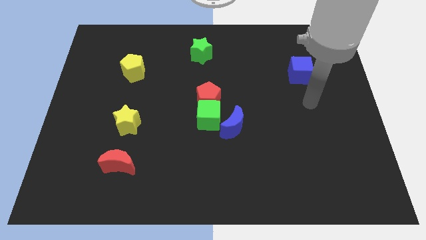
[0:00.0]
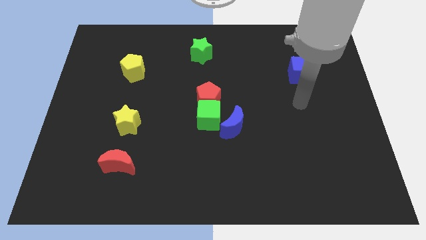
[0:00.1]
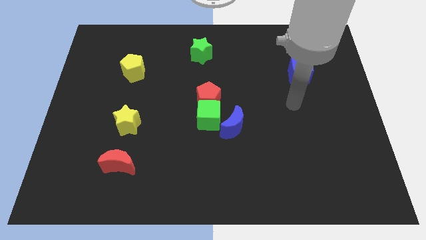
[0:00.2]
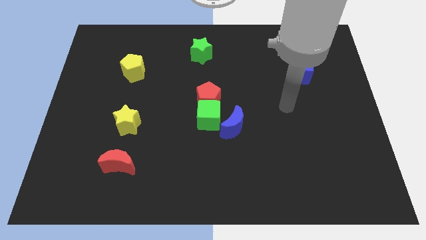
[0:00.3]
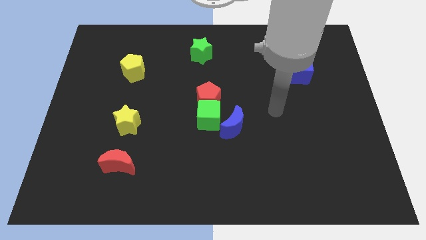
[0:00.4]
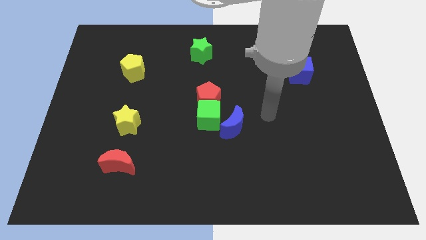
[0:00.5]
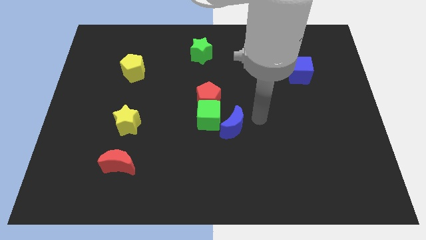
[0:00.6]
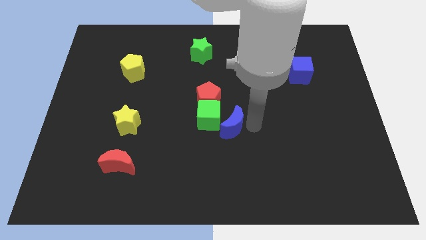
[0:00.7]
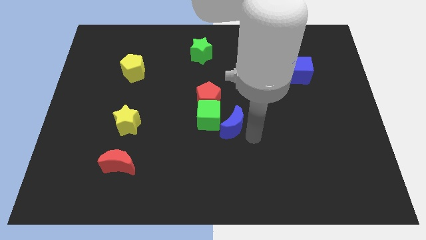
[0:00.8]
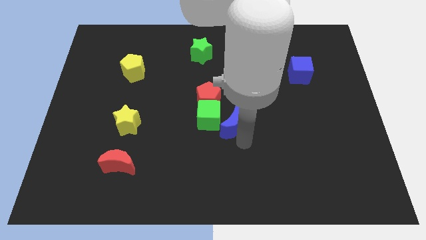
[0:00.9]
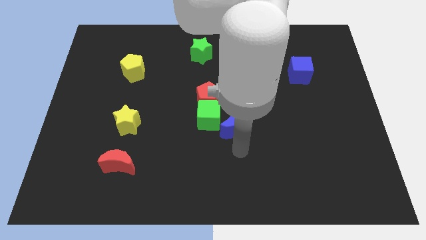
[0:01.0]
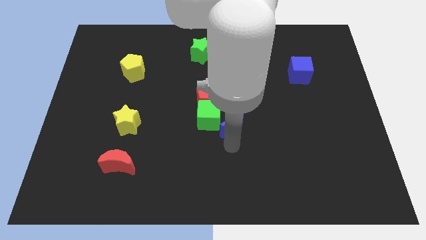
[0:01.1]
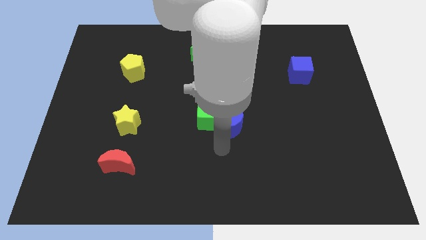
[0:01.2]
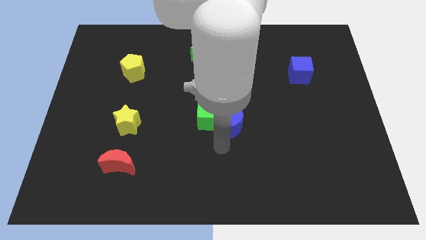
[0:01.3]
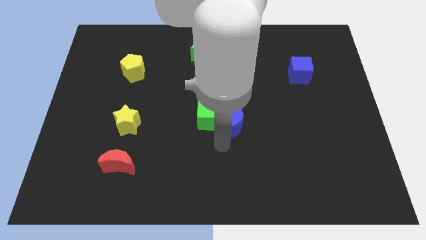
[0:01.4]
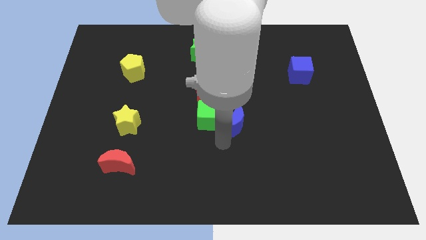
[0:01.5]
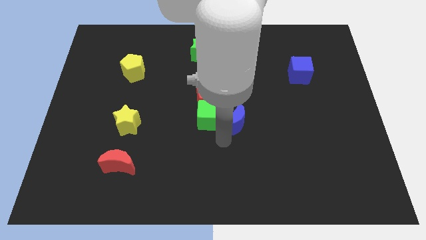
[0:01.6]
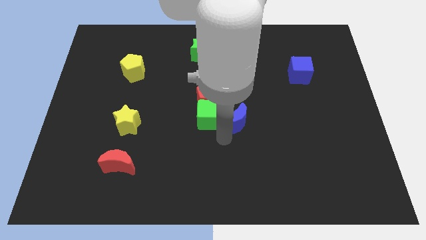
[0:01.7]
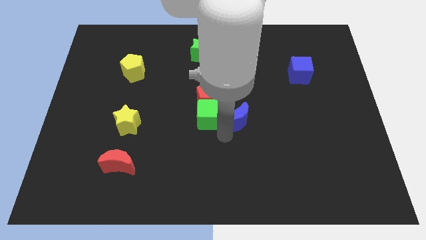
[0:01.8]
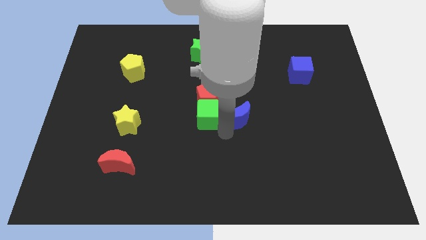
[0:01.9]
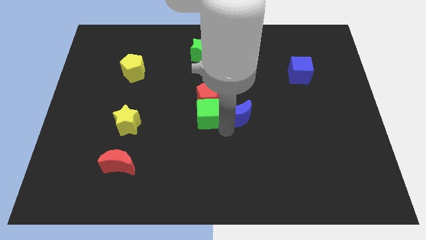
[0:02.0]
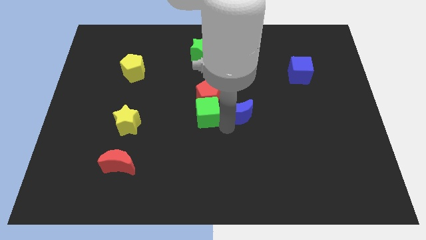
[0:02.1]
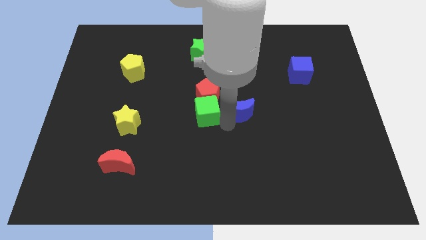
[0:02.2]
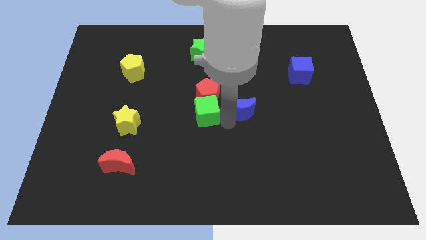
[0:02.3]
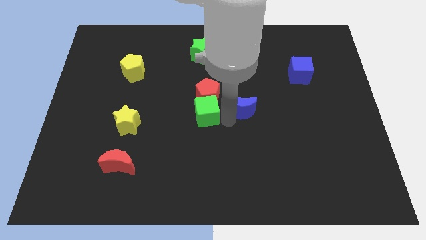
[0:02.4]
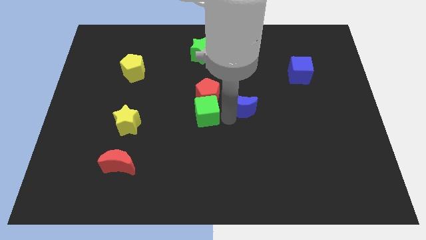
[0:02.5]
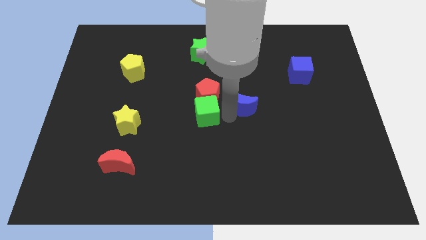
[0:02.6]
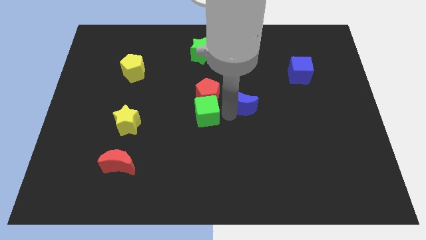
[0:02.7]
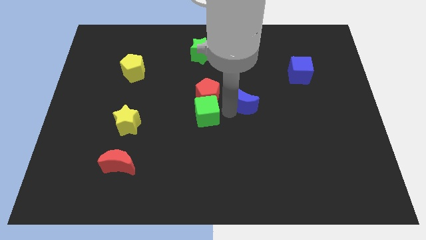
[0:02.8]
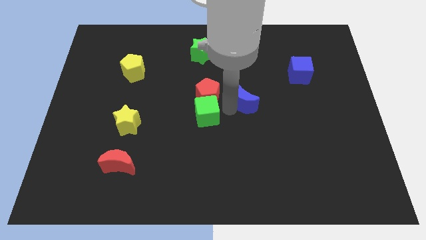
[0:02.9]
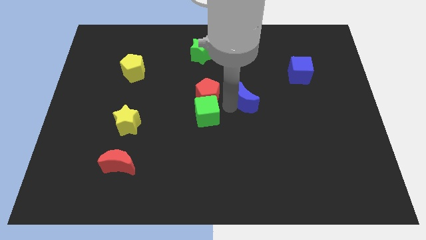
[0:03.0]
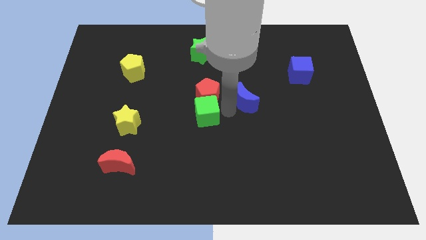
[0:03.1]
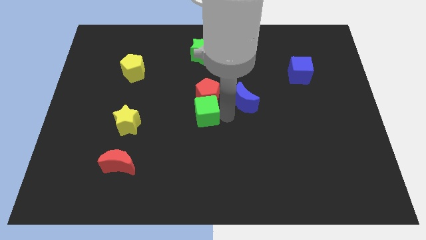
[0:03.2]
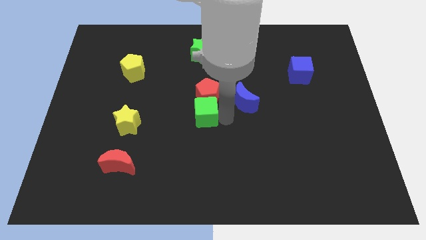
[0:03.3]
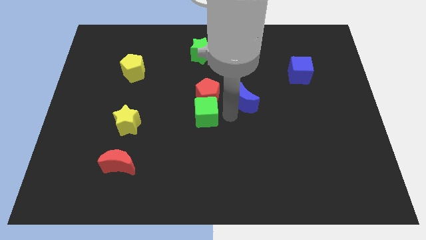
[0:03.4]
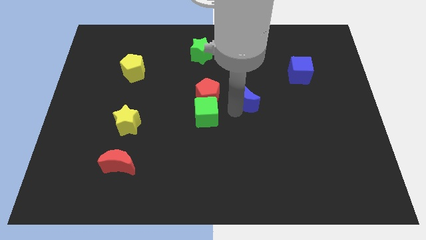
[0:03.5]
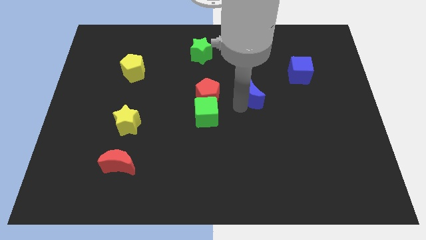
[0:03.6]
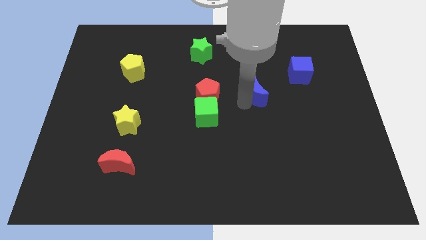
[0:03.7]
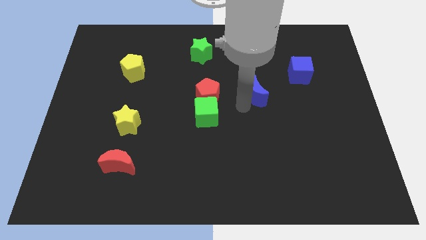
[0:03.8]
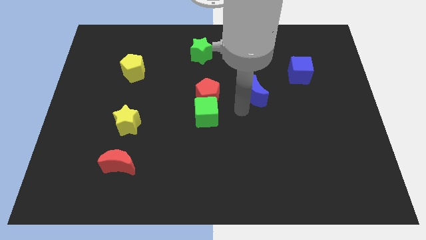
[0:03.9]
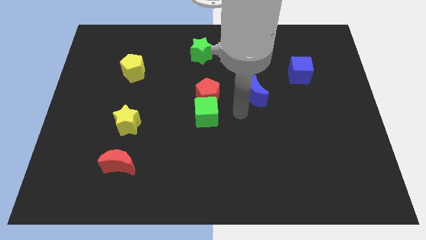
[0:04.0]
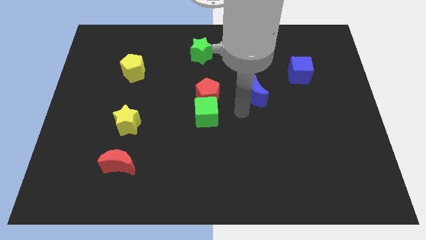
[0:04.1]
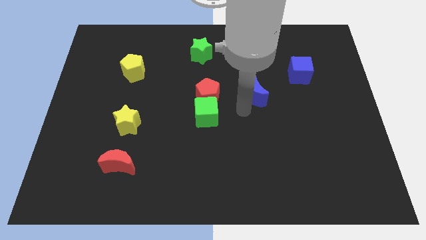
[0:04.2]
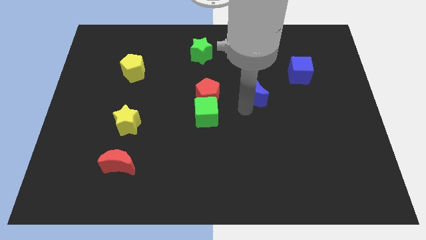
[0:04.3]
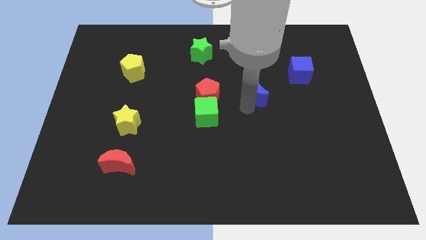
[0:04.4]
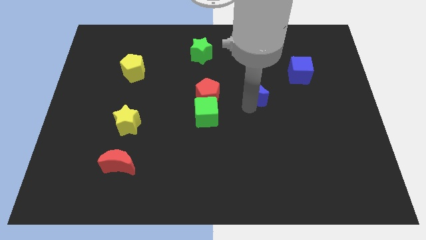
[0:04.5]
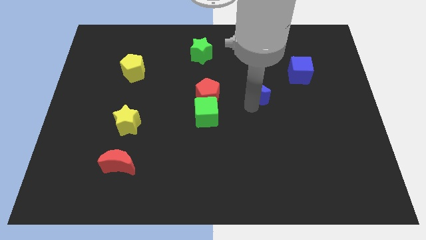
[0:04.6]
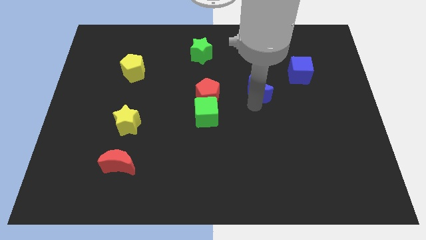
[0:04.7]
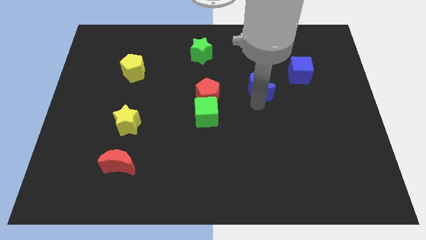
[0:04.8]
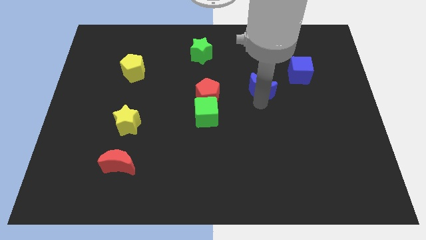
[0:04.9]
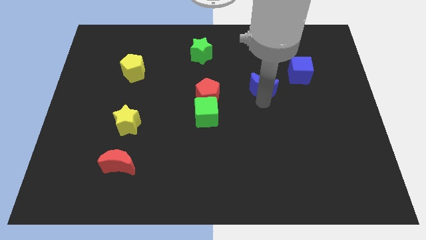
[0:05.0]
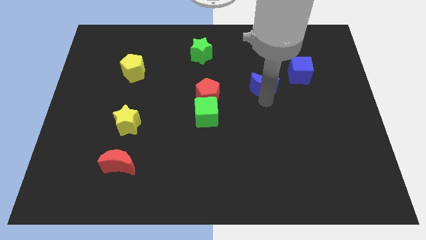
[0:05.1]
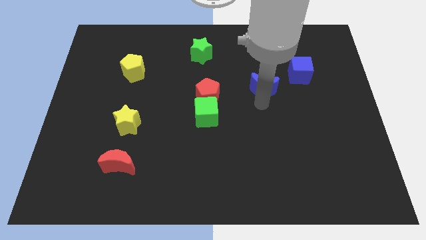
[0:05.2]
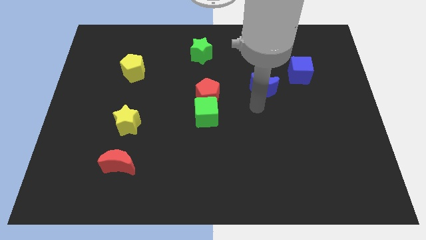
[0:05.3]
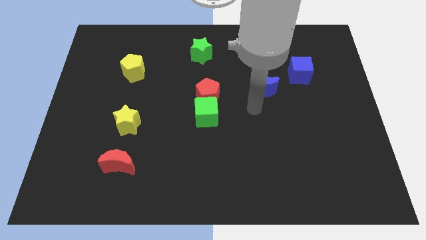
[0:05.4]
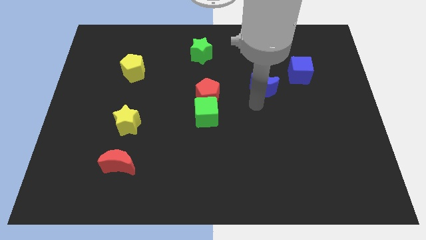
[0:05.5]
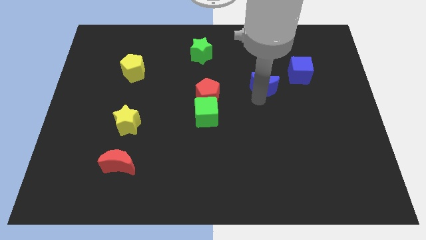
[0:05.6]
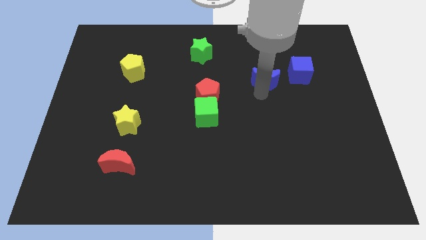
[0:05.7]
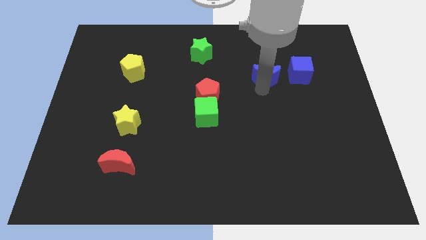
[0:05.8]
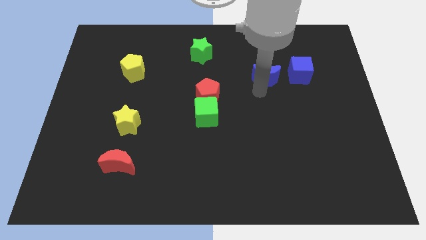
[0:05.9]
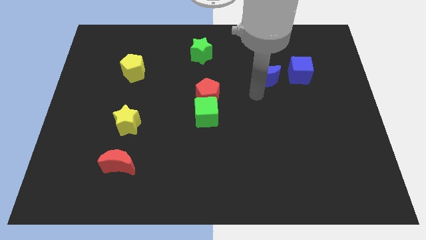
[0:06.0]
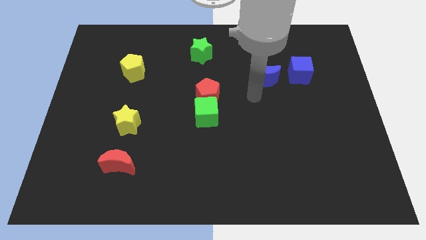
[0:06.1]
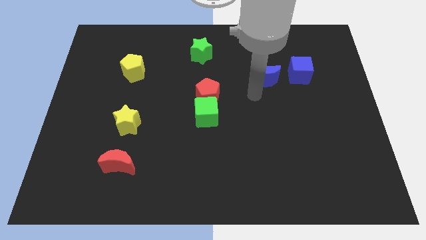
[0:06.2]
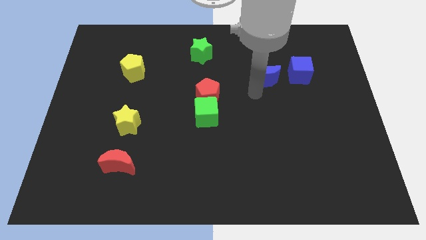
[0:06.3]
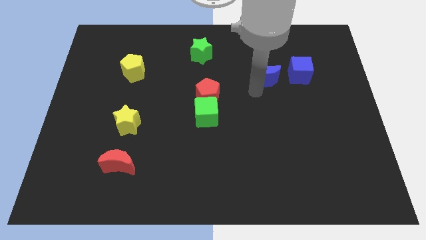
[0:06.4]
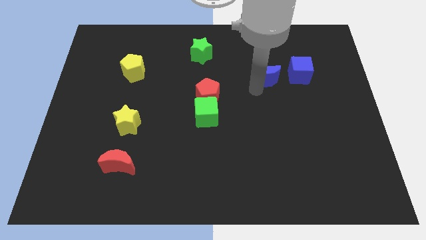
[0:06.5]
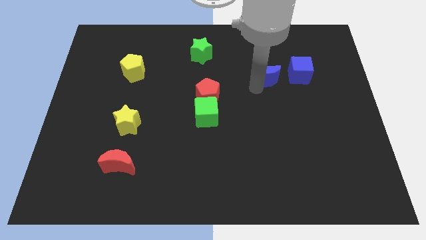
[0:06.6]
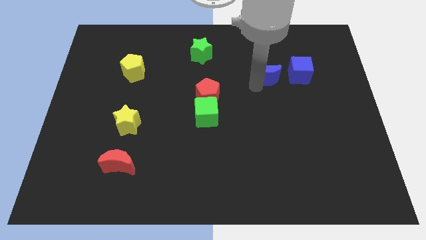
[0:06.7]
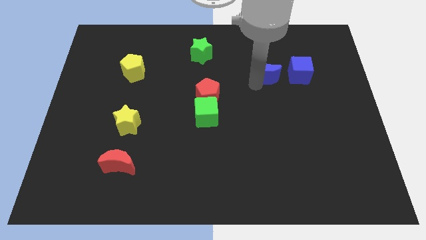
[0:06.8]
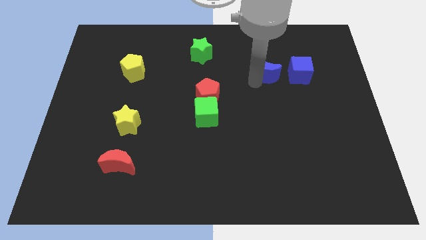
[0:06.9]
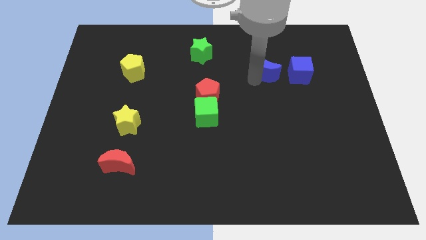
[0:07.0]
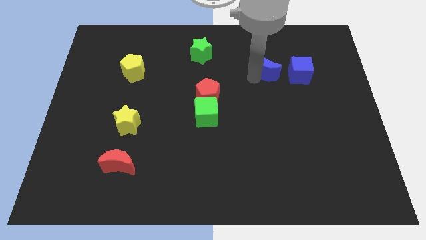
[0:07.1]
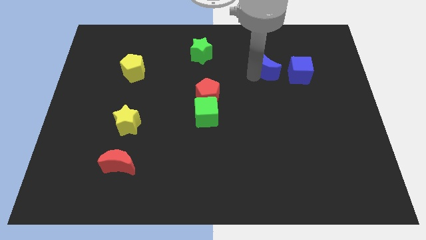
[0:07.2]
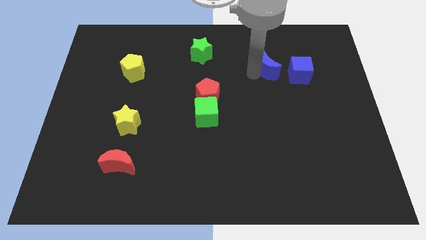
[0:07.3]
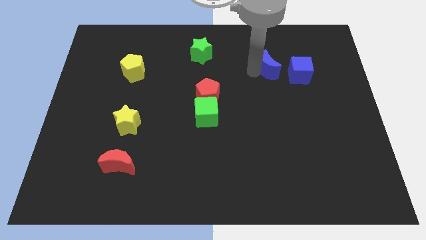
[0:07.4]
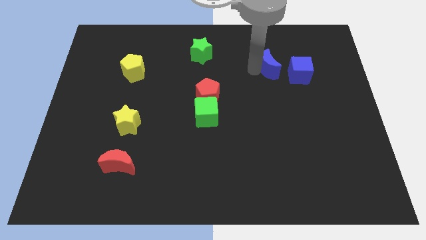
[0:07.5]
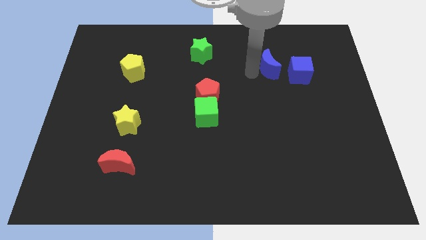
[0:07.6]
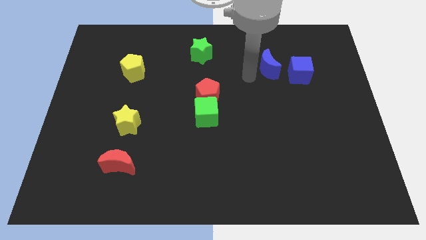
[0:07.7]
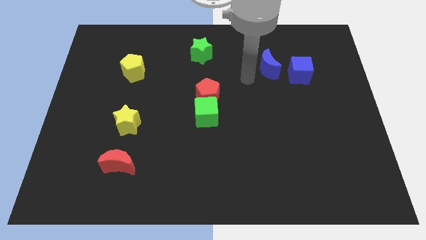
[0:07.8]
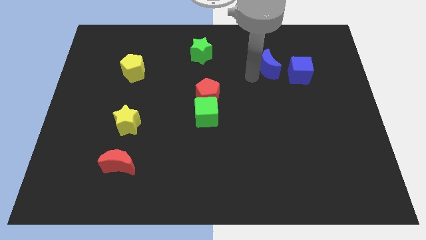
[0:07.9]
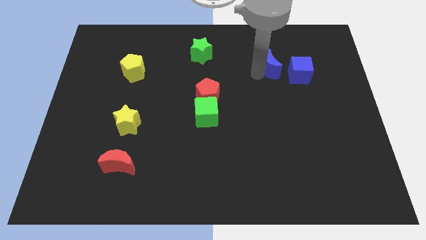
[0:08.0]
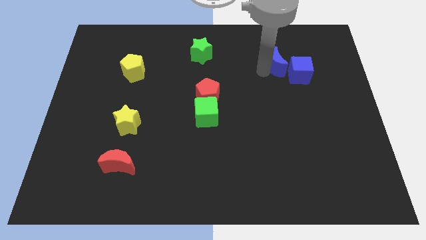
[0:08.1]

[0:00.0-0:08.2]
push the blue moon upwards and right diagonally
